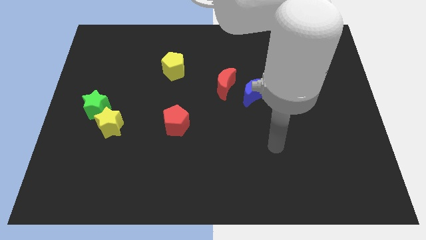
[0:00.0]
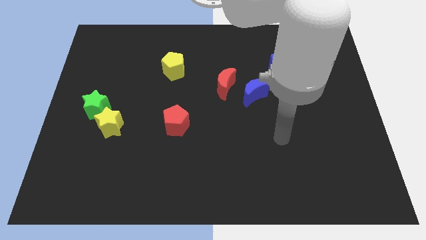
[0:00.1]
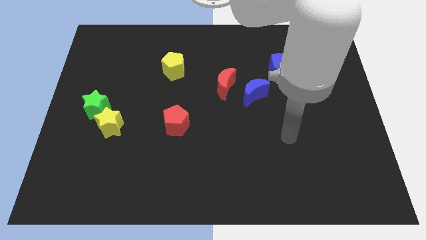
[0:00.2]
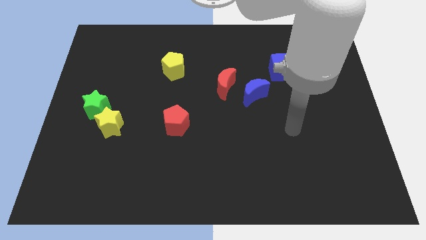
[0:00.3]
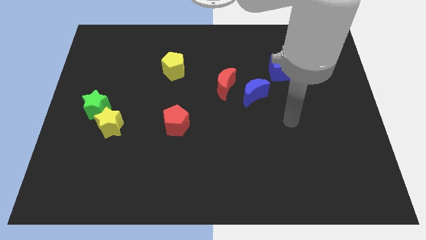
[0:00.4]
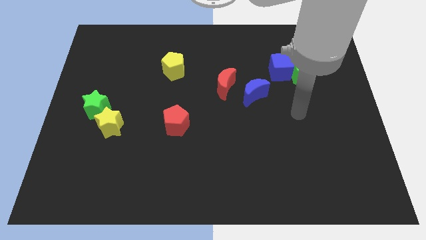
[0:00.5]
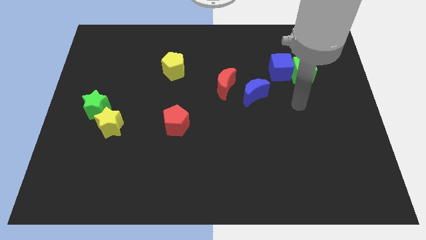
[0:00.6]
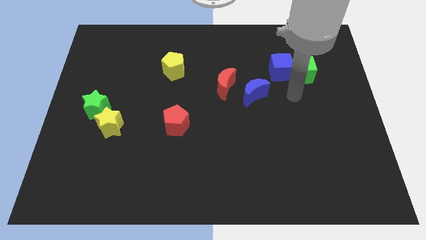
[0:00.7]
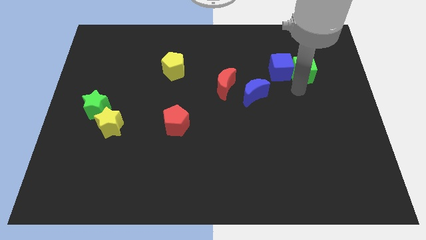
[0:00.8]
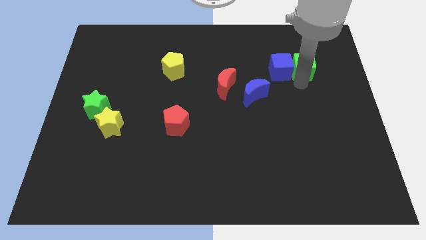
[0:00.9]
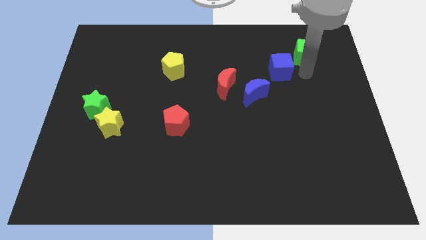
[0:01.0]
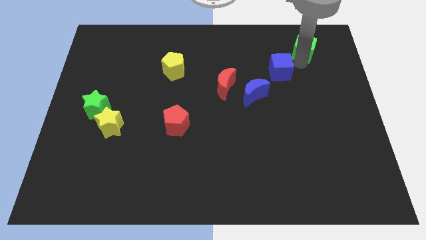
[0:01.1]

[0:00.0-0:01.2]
move the blue cube away from the green cube

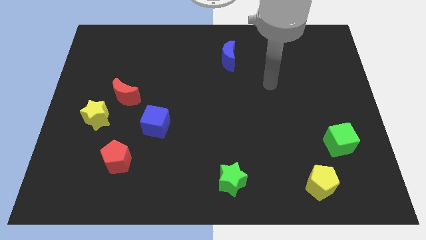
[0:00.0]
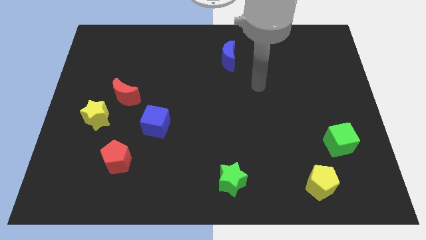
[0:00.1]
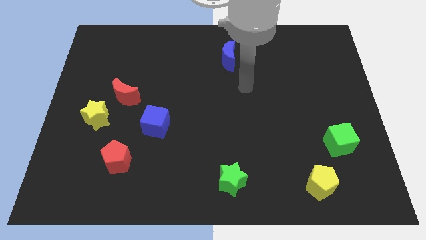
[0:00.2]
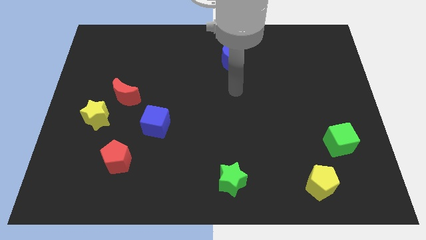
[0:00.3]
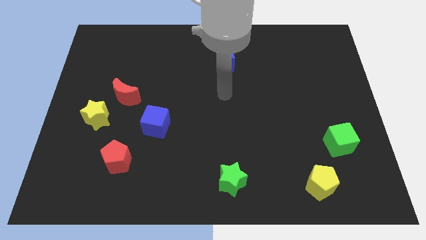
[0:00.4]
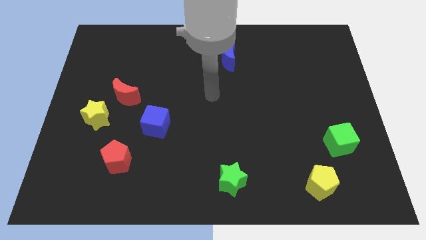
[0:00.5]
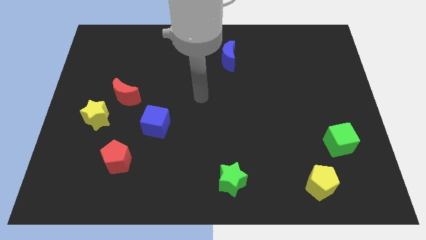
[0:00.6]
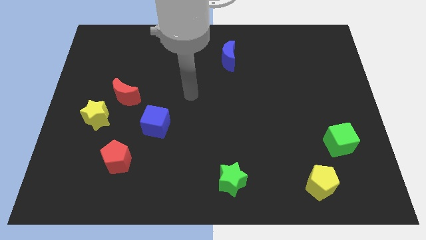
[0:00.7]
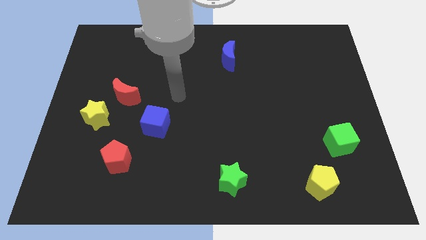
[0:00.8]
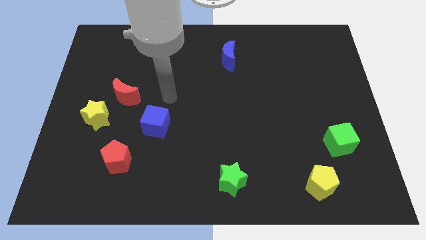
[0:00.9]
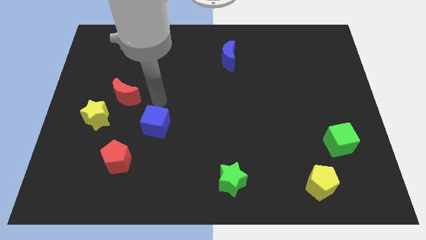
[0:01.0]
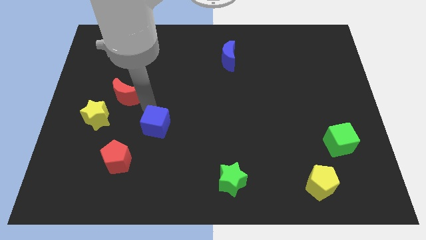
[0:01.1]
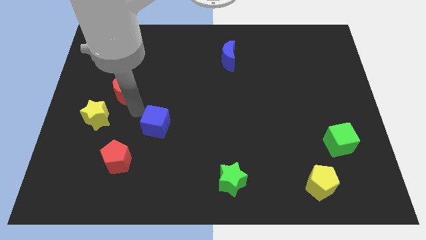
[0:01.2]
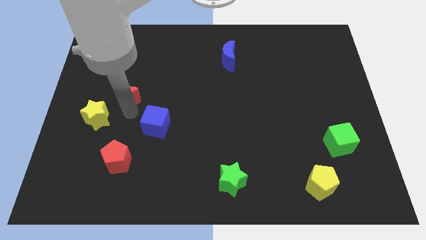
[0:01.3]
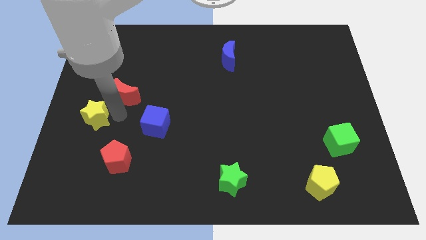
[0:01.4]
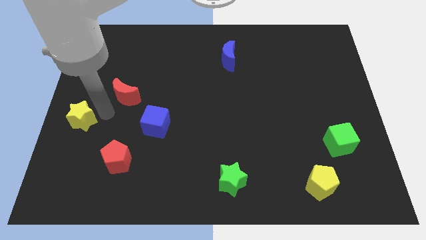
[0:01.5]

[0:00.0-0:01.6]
move the red moon away from the yellow star

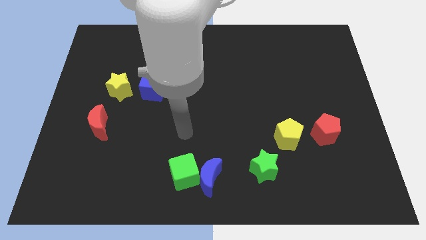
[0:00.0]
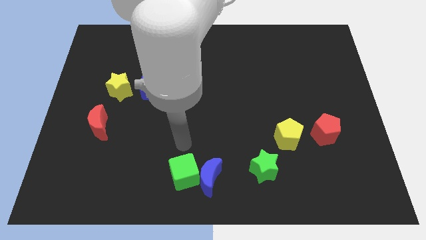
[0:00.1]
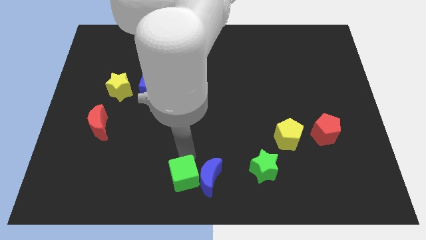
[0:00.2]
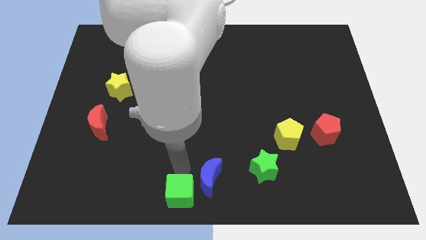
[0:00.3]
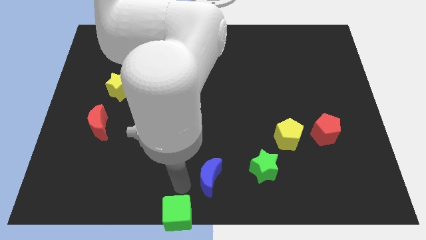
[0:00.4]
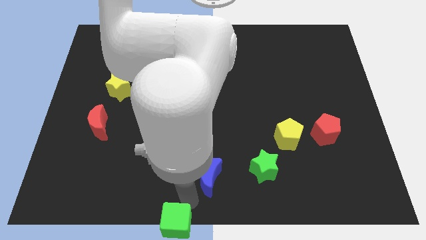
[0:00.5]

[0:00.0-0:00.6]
pull the blue moon apart from the green cube

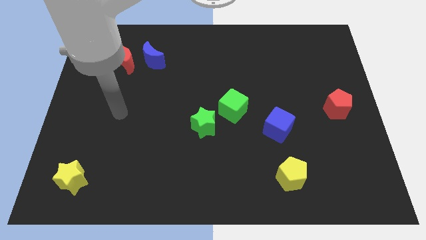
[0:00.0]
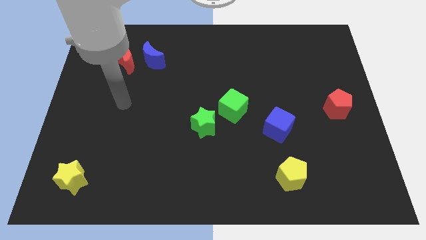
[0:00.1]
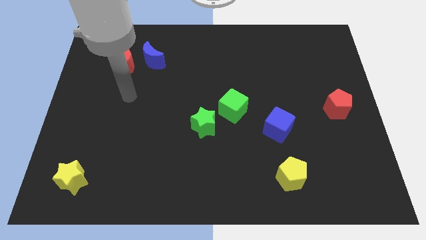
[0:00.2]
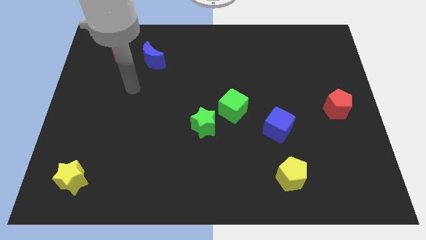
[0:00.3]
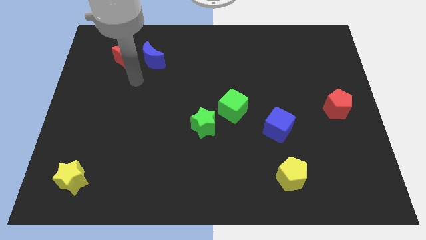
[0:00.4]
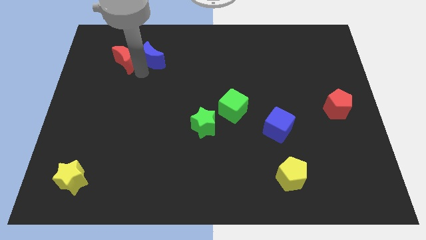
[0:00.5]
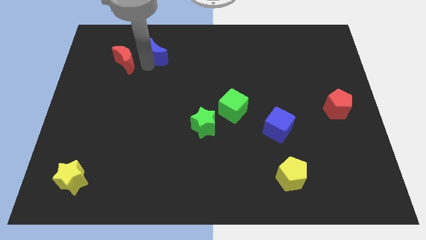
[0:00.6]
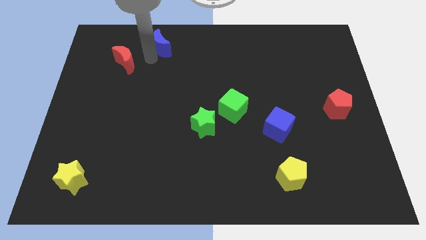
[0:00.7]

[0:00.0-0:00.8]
separate the red moon from the blue moon

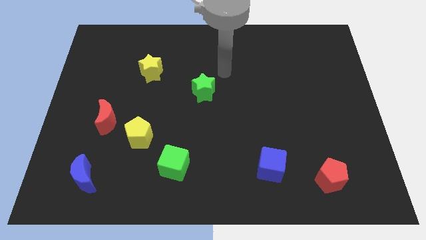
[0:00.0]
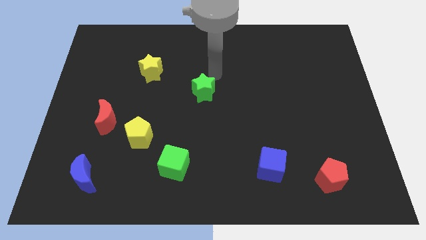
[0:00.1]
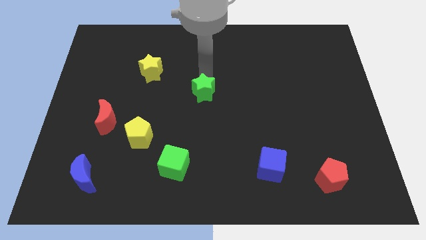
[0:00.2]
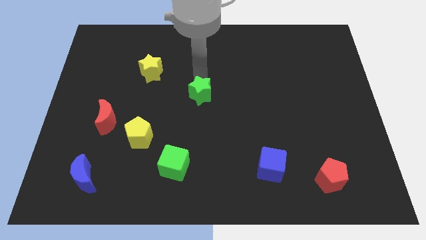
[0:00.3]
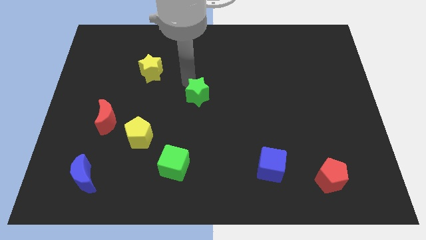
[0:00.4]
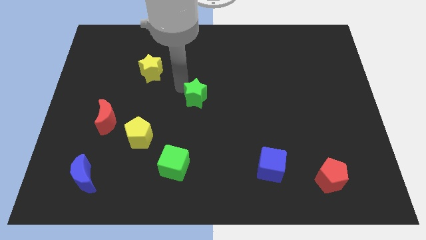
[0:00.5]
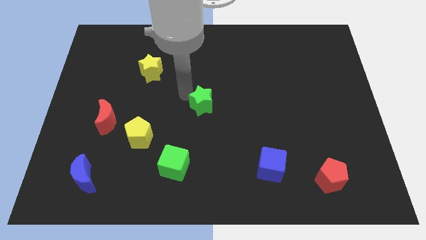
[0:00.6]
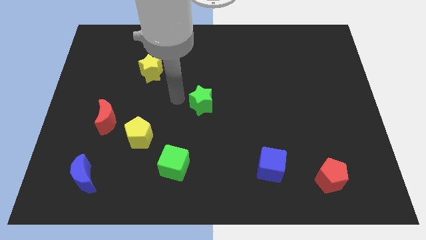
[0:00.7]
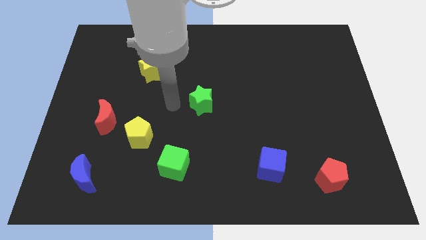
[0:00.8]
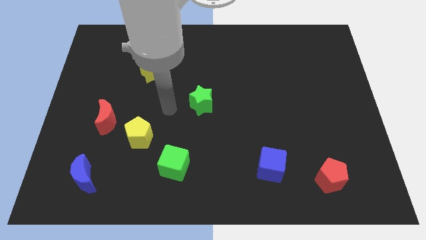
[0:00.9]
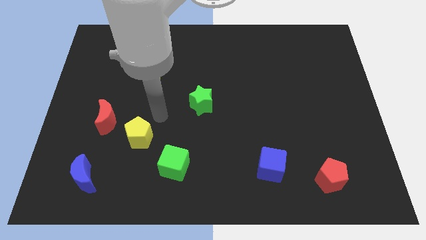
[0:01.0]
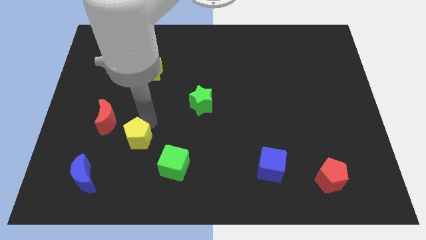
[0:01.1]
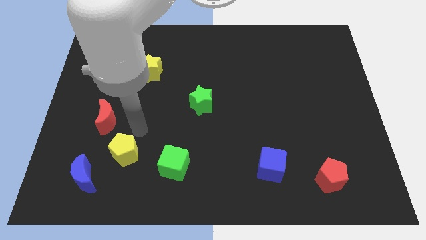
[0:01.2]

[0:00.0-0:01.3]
move the red moon away from the yellow pentagon

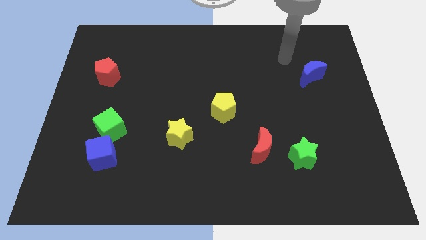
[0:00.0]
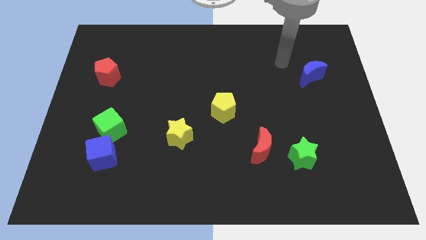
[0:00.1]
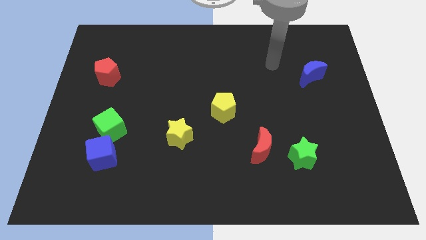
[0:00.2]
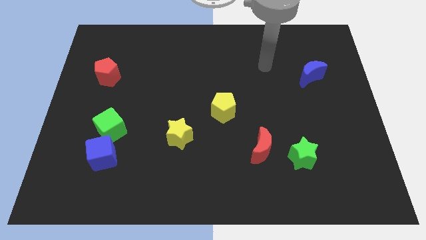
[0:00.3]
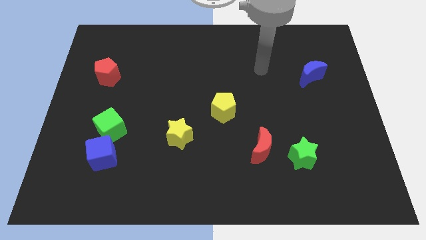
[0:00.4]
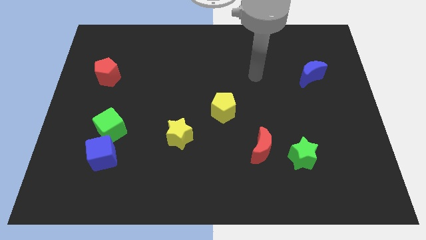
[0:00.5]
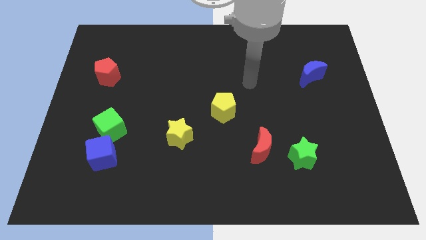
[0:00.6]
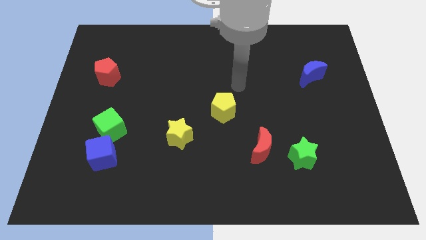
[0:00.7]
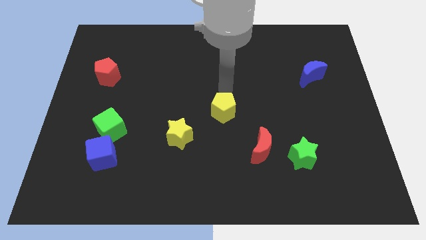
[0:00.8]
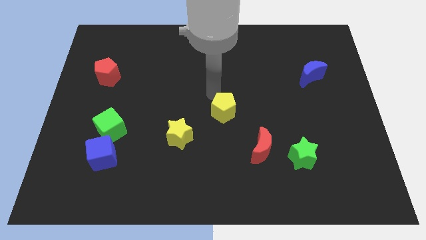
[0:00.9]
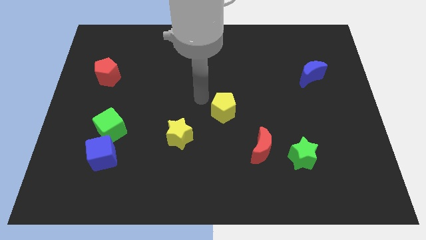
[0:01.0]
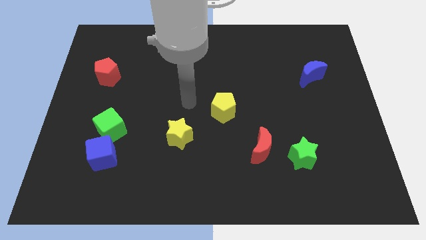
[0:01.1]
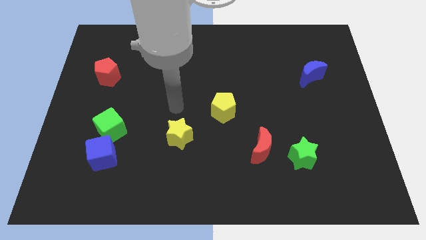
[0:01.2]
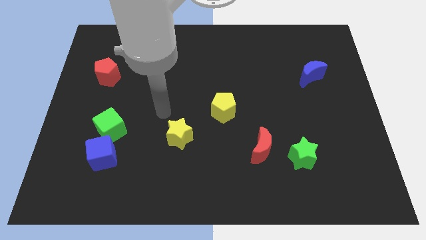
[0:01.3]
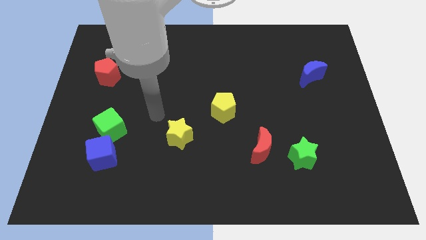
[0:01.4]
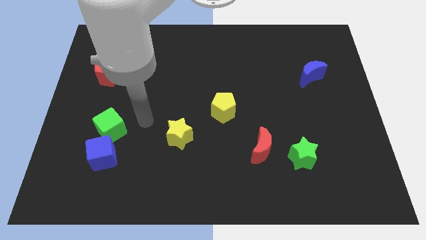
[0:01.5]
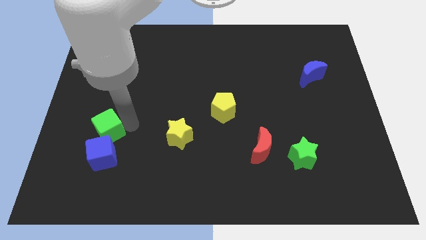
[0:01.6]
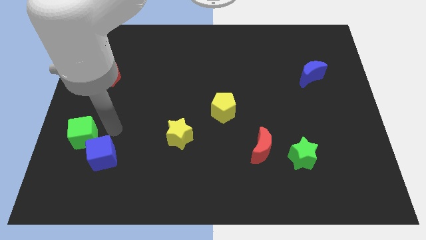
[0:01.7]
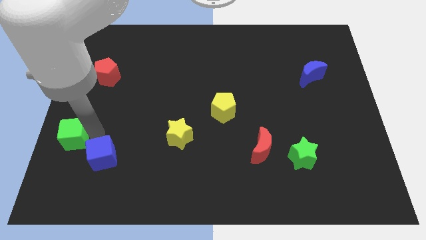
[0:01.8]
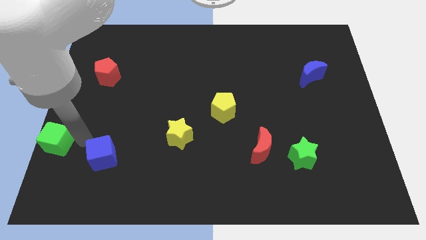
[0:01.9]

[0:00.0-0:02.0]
pull the blue cube apart from the green cube

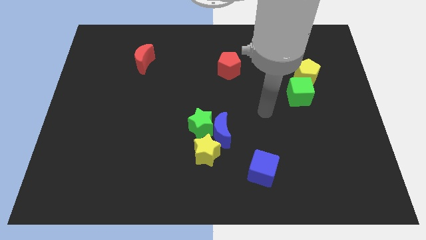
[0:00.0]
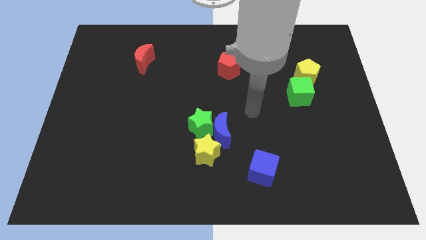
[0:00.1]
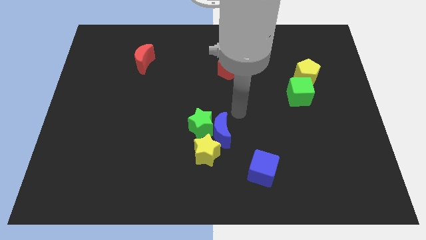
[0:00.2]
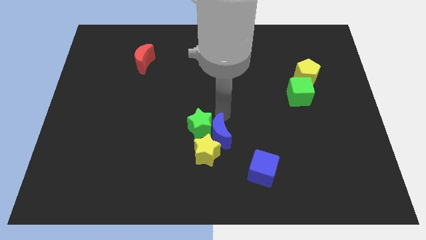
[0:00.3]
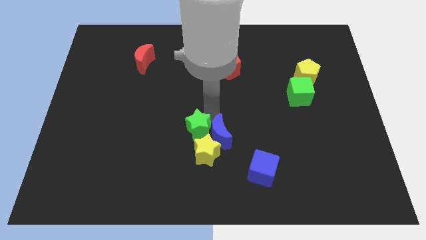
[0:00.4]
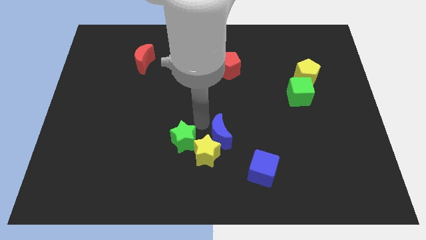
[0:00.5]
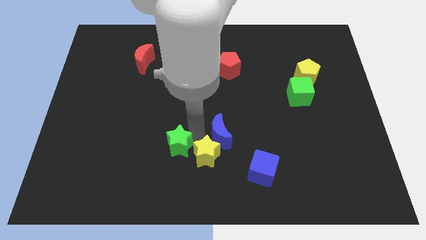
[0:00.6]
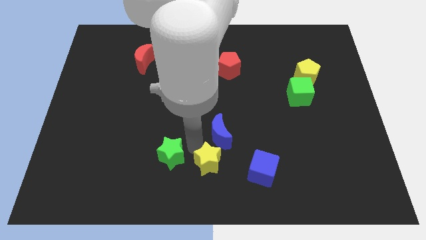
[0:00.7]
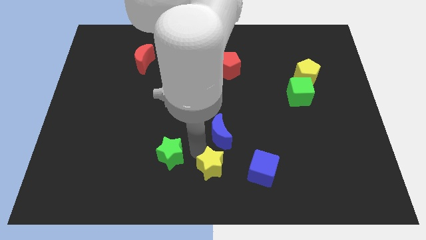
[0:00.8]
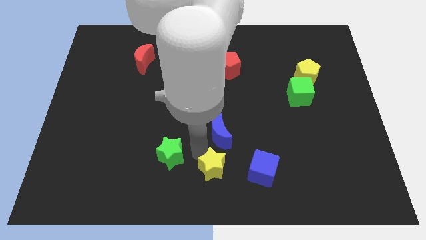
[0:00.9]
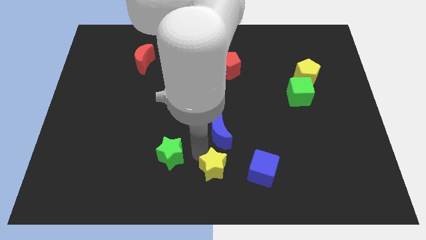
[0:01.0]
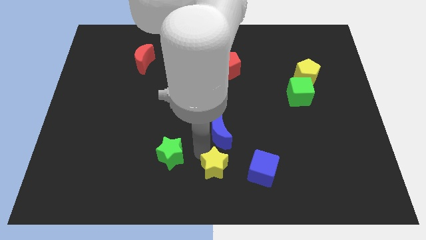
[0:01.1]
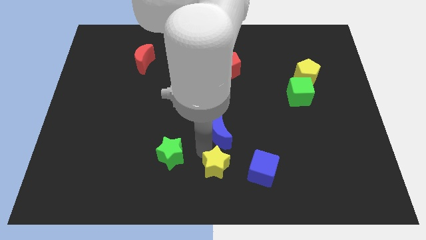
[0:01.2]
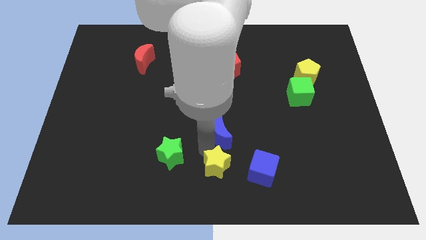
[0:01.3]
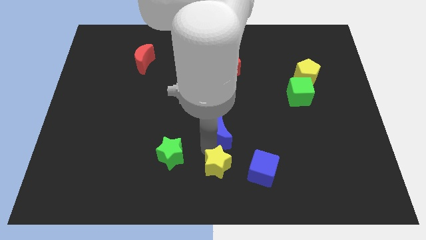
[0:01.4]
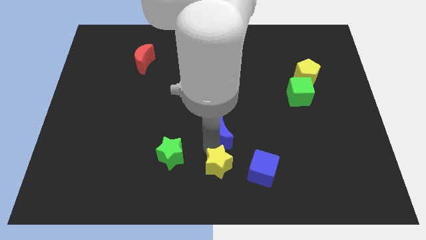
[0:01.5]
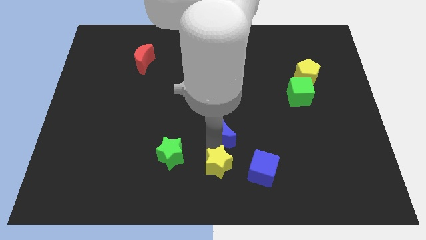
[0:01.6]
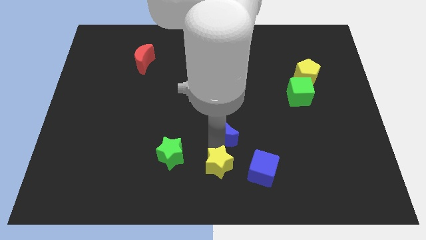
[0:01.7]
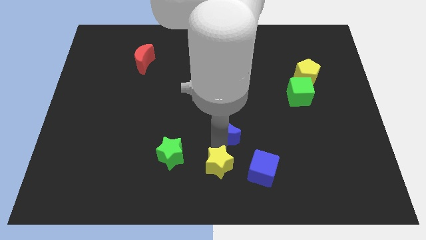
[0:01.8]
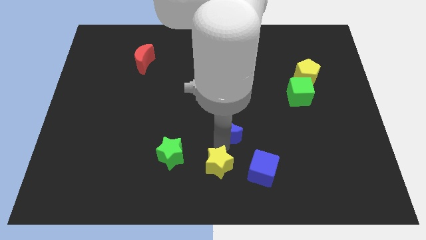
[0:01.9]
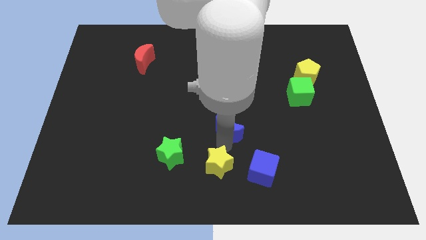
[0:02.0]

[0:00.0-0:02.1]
separate the blue moon from the green star and yellow star
